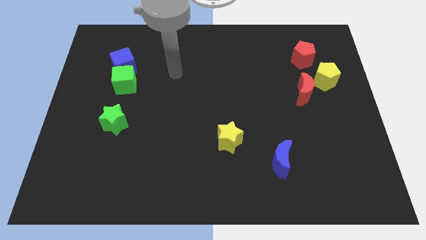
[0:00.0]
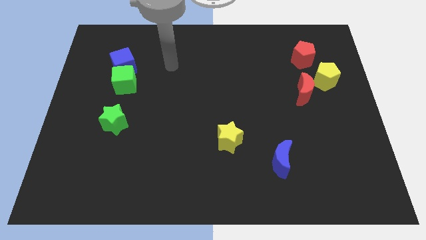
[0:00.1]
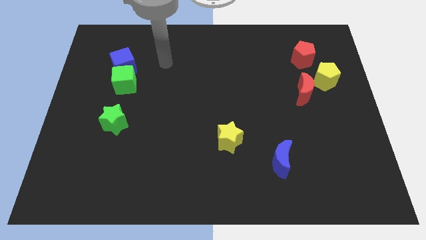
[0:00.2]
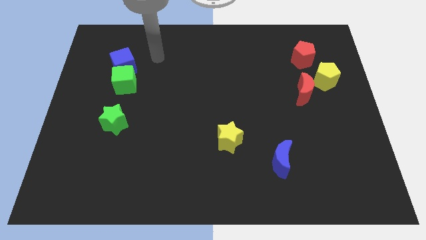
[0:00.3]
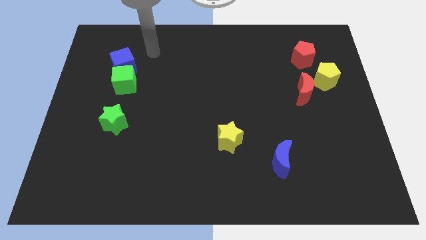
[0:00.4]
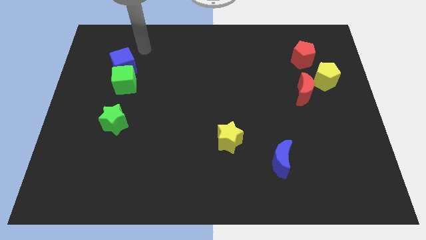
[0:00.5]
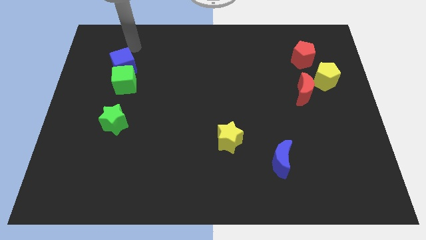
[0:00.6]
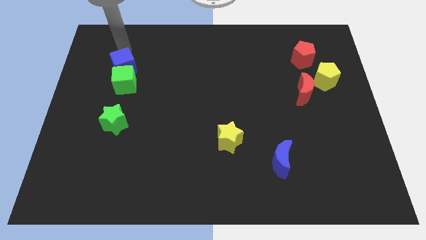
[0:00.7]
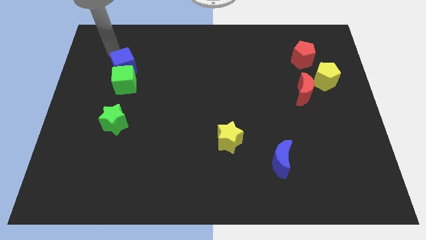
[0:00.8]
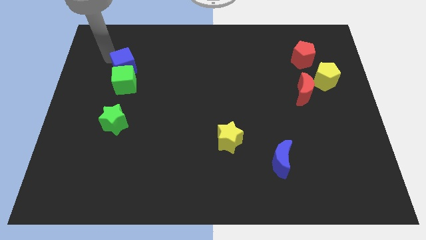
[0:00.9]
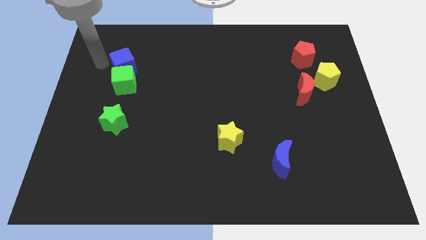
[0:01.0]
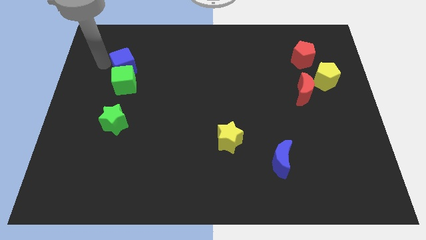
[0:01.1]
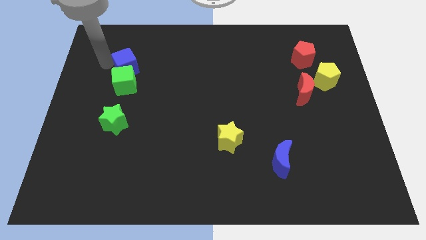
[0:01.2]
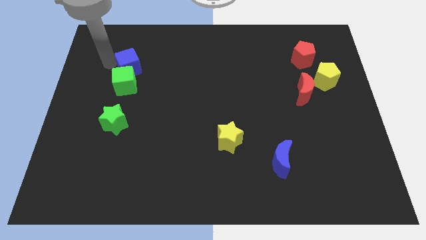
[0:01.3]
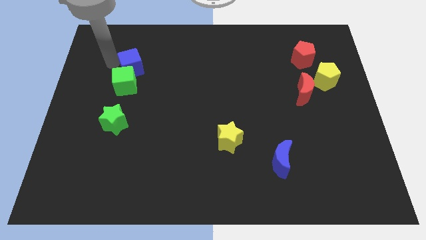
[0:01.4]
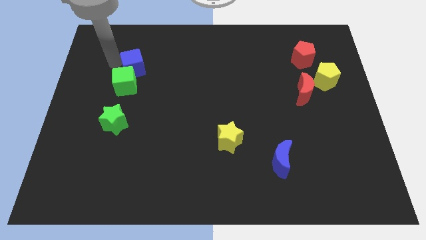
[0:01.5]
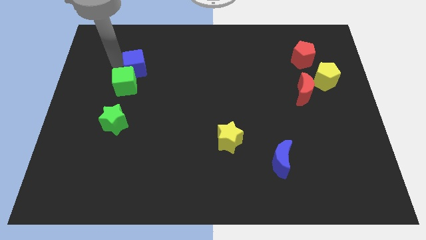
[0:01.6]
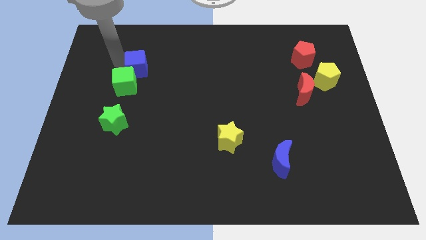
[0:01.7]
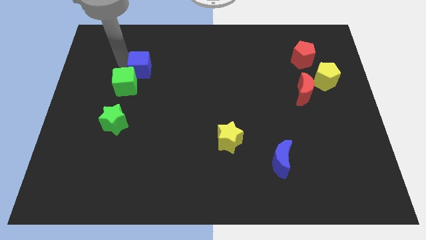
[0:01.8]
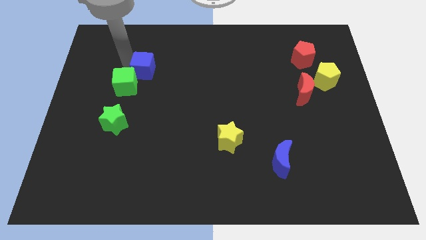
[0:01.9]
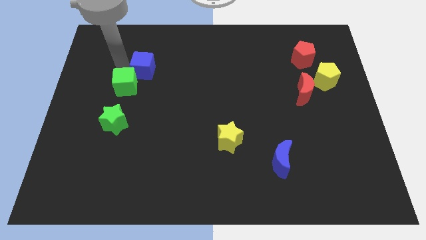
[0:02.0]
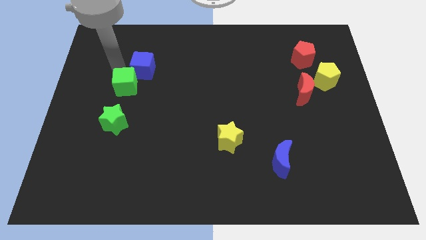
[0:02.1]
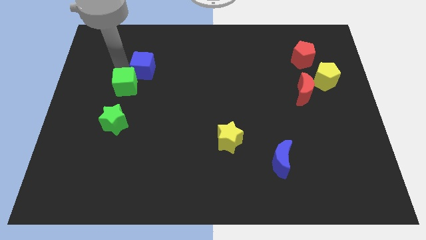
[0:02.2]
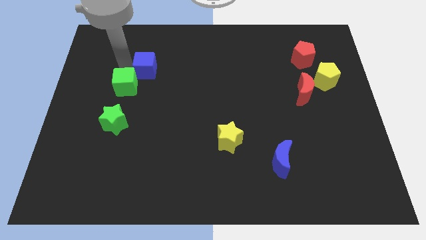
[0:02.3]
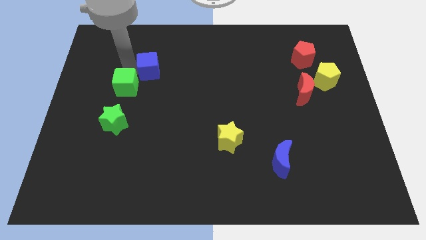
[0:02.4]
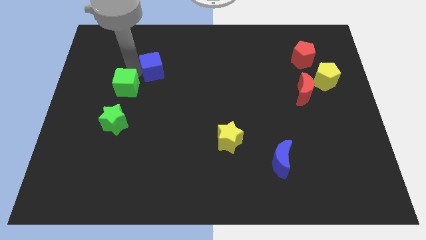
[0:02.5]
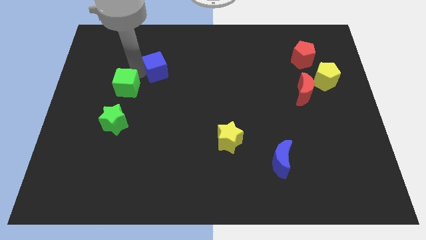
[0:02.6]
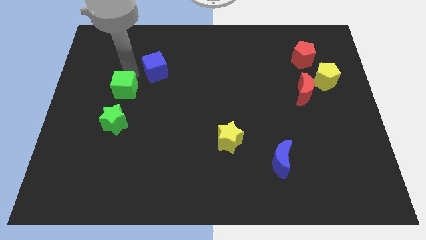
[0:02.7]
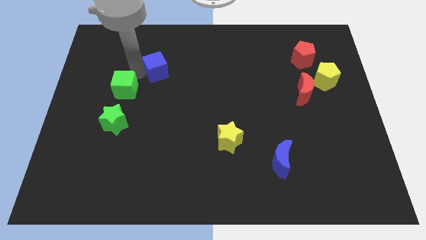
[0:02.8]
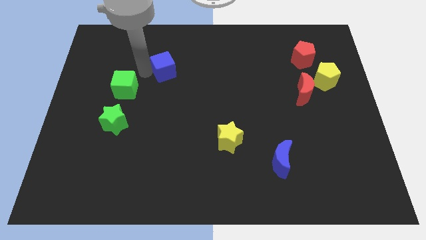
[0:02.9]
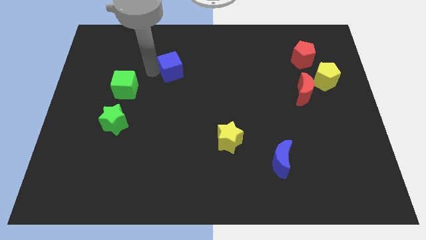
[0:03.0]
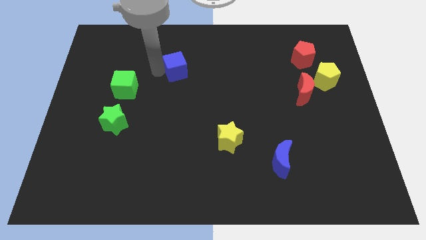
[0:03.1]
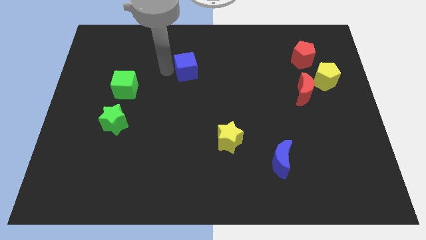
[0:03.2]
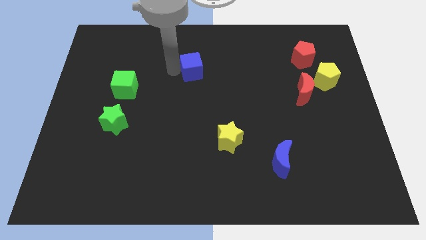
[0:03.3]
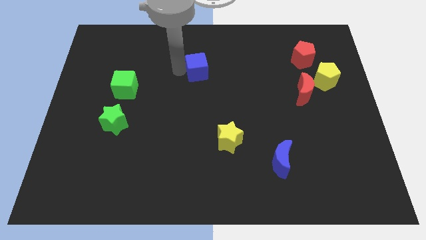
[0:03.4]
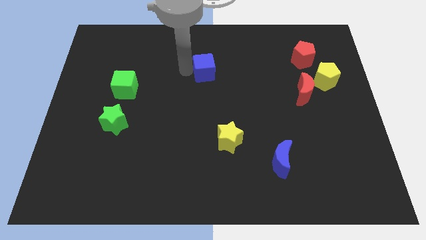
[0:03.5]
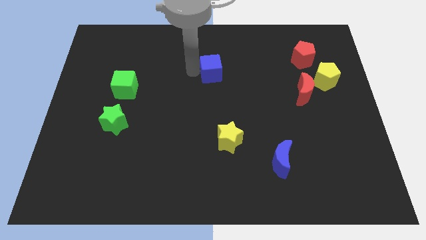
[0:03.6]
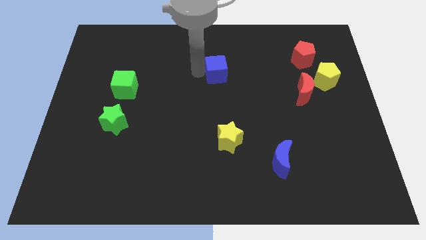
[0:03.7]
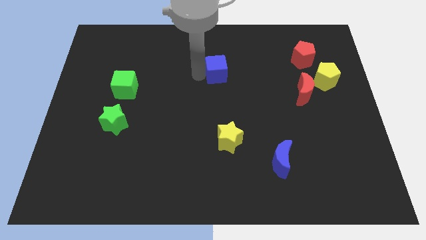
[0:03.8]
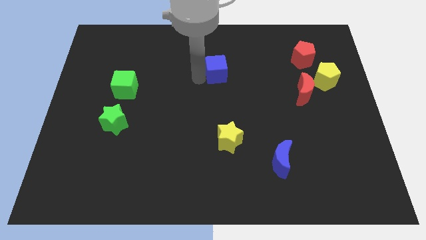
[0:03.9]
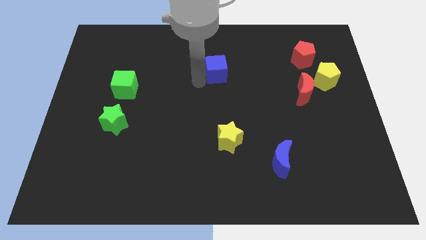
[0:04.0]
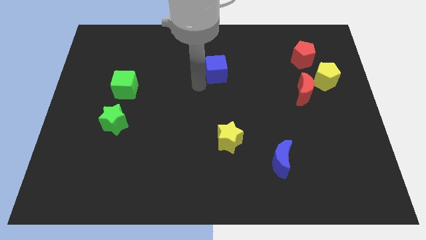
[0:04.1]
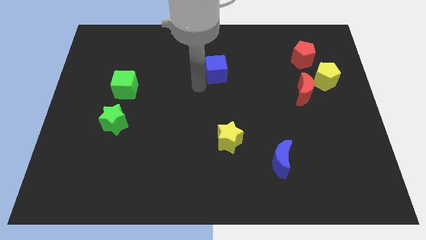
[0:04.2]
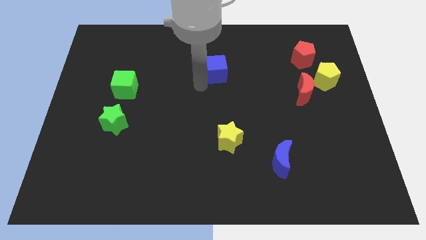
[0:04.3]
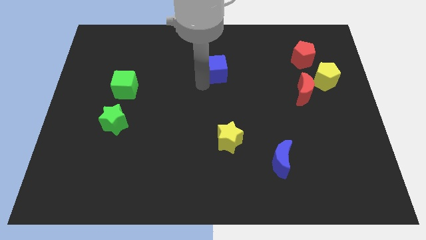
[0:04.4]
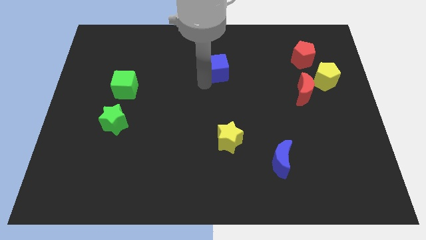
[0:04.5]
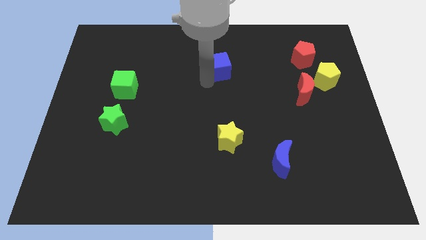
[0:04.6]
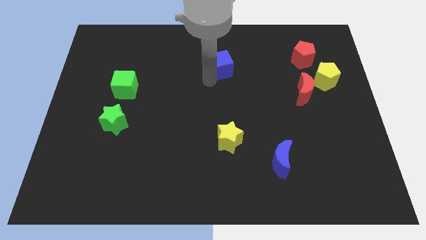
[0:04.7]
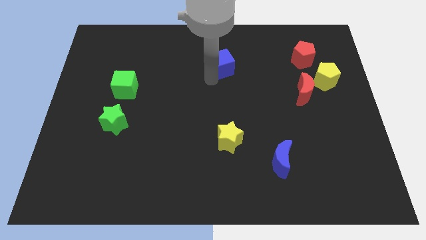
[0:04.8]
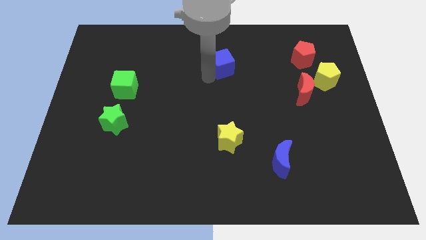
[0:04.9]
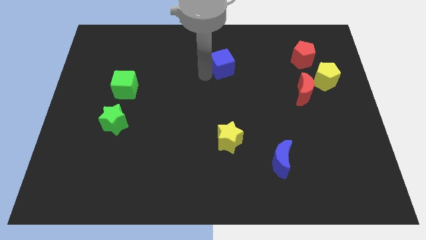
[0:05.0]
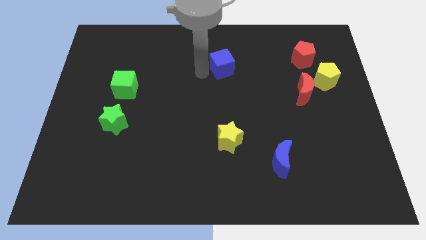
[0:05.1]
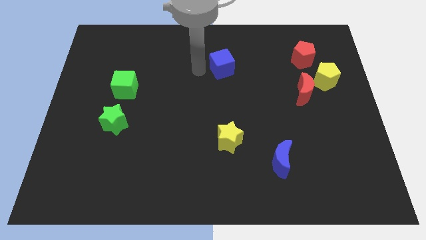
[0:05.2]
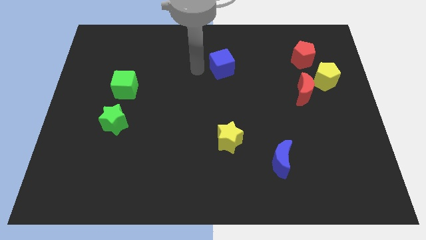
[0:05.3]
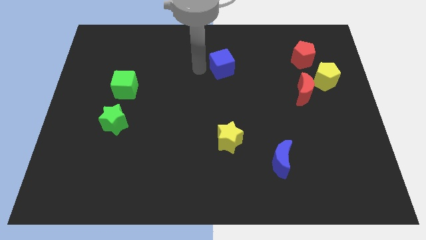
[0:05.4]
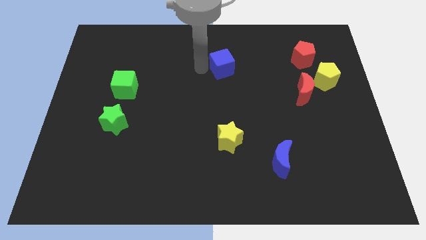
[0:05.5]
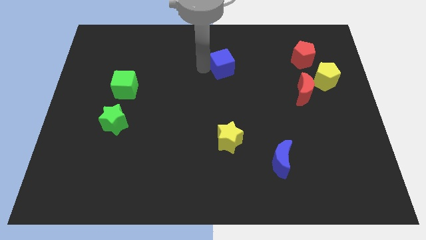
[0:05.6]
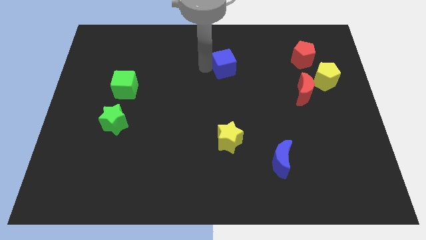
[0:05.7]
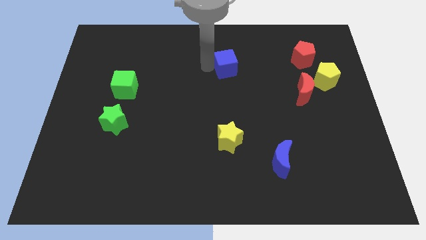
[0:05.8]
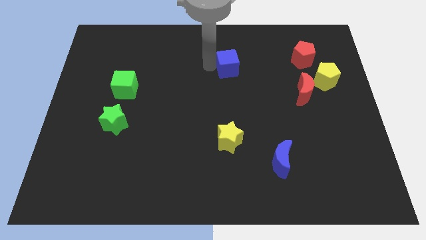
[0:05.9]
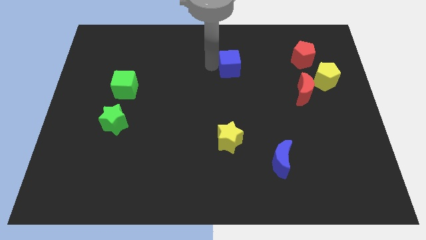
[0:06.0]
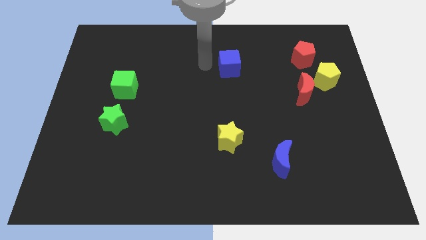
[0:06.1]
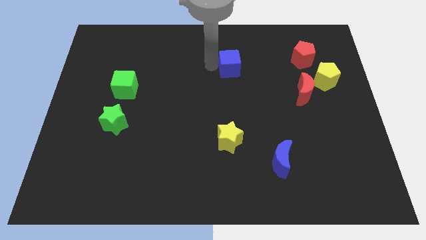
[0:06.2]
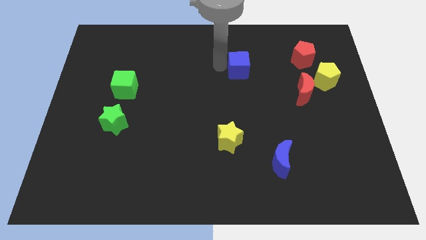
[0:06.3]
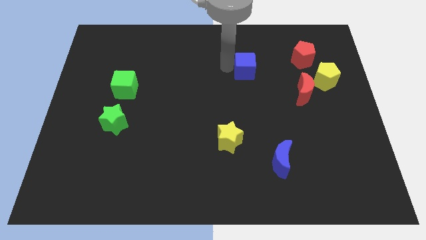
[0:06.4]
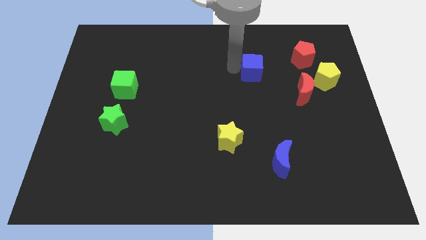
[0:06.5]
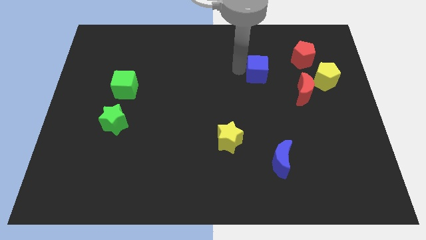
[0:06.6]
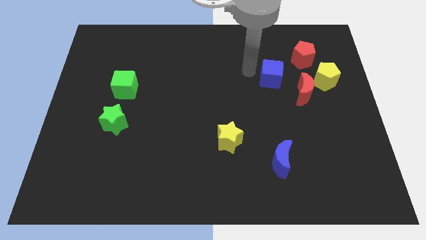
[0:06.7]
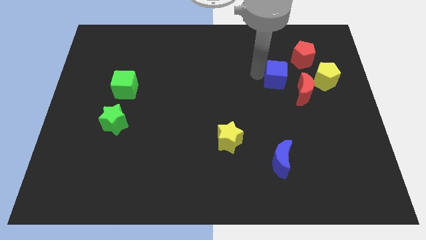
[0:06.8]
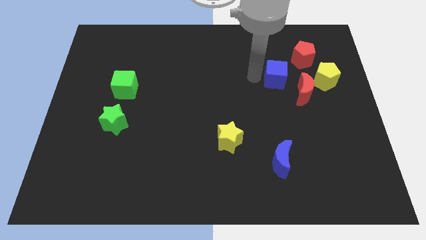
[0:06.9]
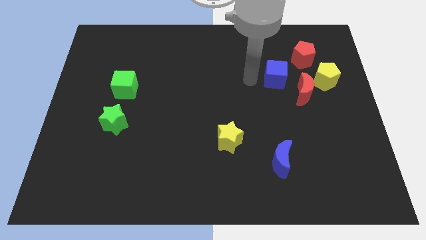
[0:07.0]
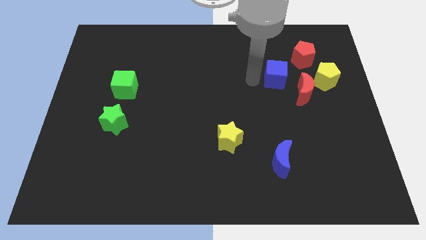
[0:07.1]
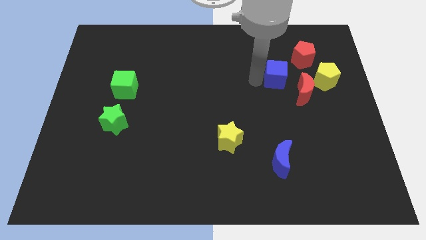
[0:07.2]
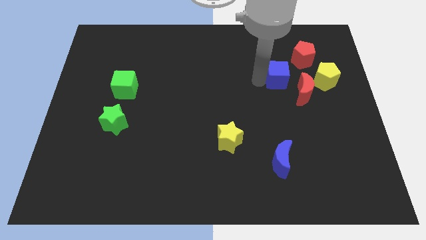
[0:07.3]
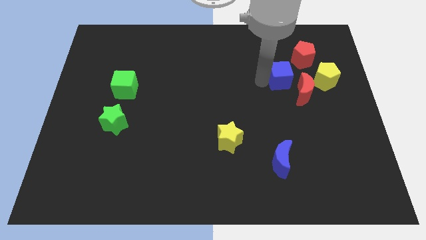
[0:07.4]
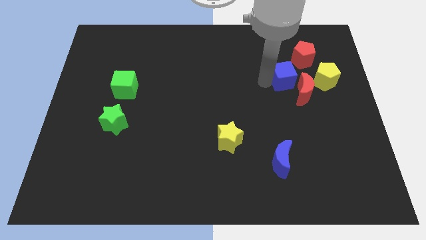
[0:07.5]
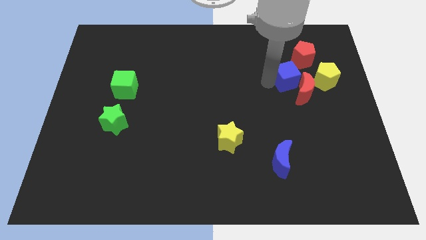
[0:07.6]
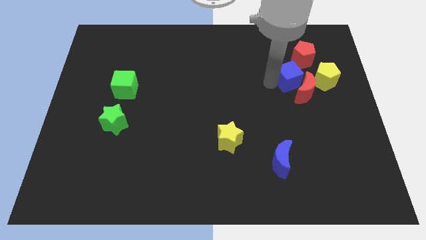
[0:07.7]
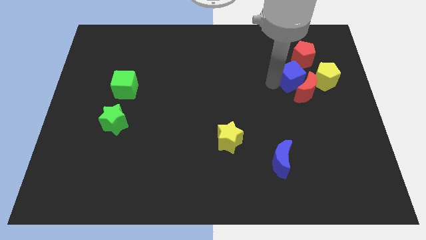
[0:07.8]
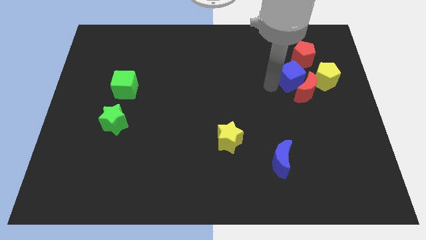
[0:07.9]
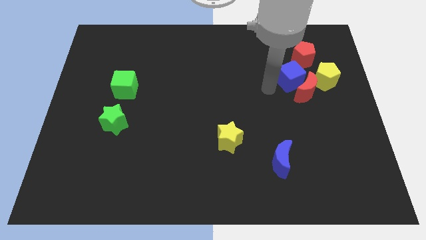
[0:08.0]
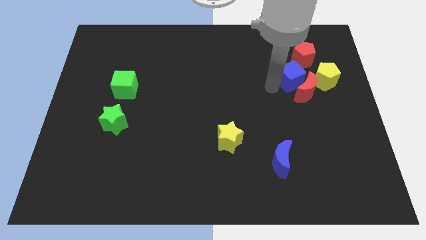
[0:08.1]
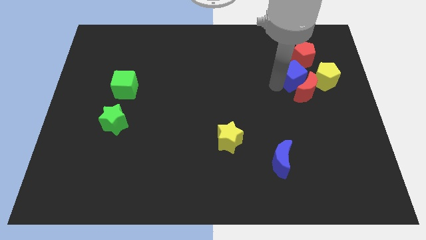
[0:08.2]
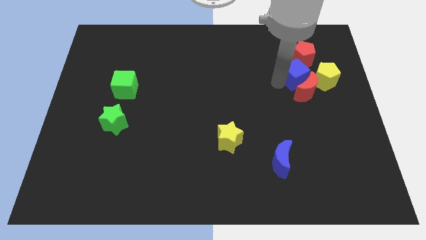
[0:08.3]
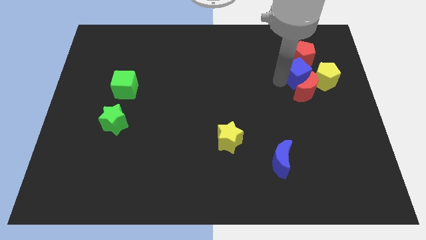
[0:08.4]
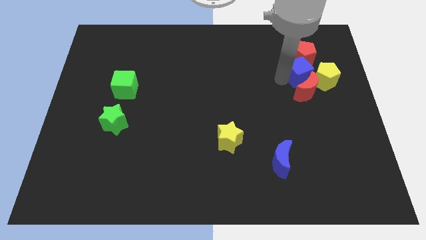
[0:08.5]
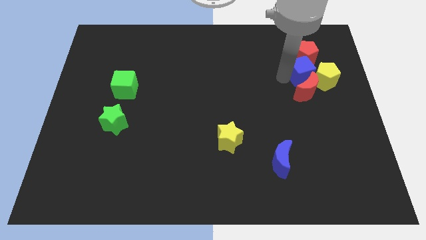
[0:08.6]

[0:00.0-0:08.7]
slide the blue cube close to the yellow pentagon
